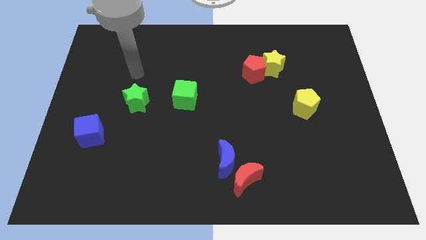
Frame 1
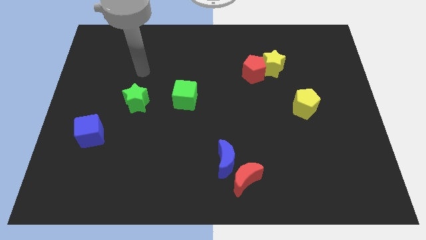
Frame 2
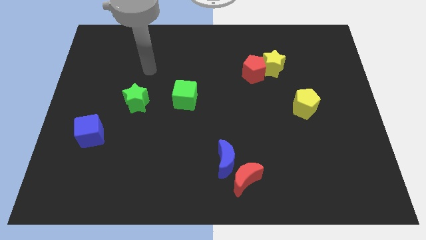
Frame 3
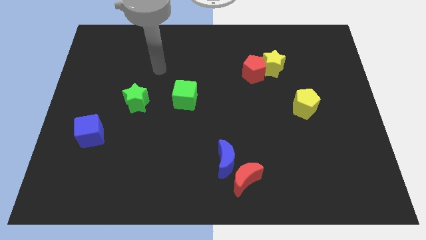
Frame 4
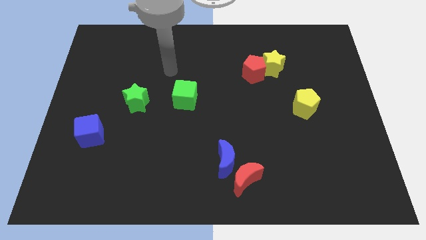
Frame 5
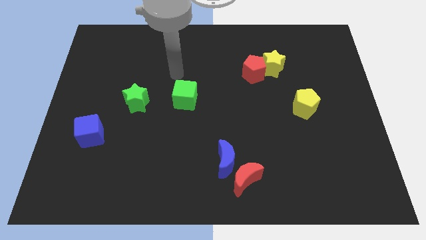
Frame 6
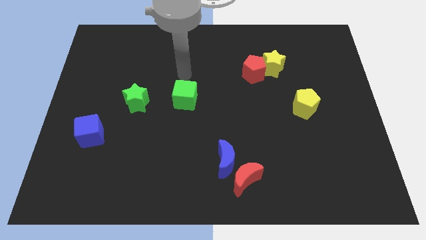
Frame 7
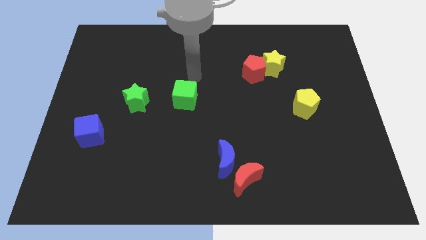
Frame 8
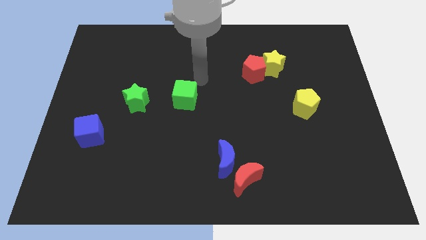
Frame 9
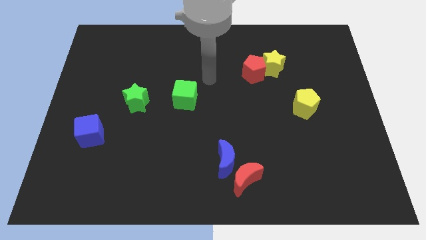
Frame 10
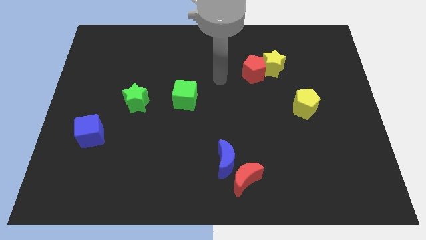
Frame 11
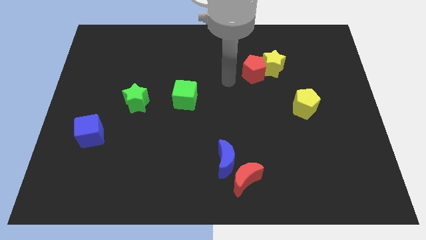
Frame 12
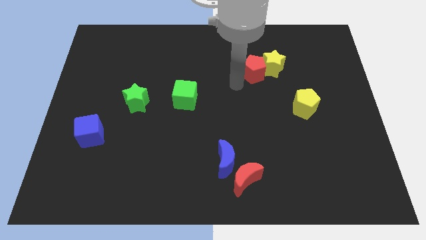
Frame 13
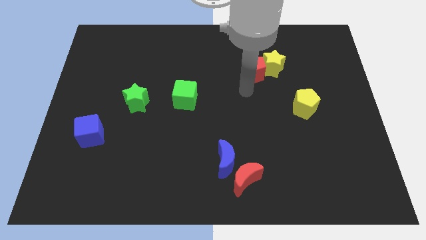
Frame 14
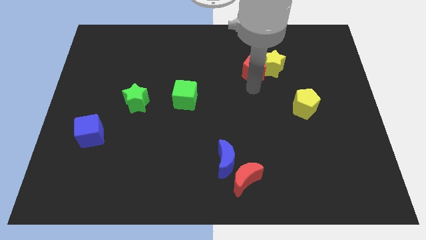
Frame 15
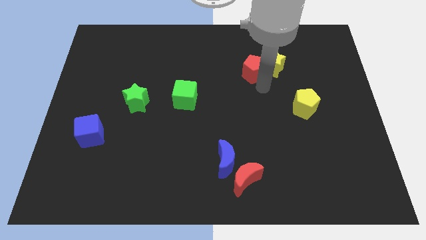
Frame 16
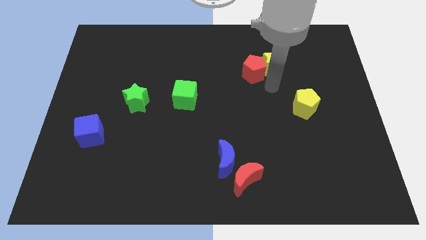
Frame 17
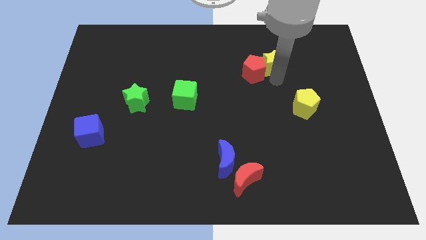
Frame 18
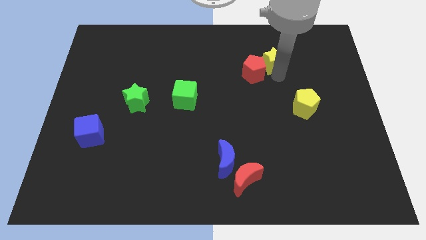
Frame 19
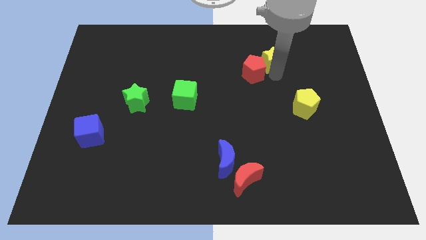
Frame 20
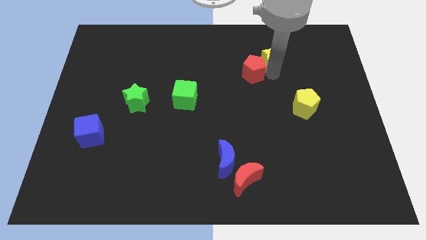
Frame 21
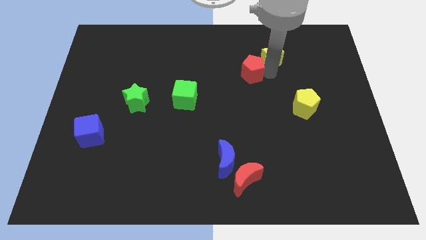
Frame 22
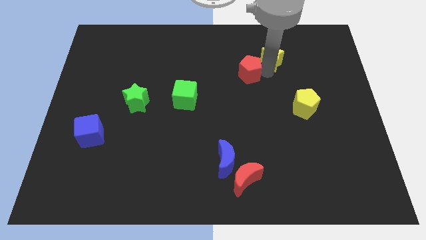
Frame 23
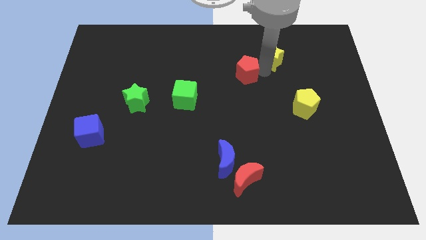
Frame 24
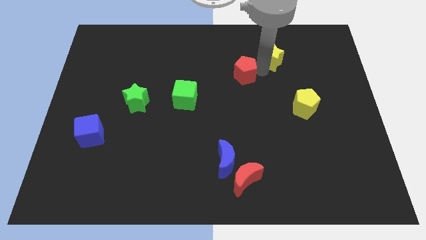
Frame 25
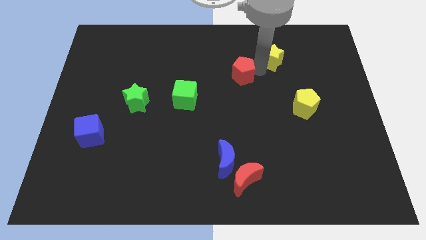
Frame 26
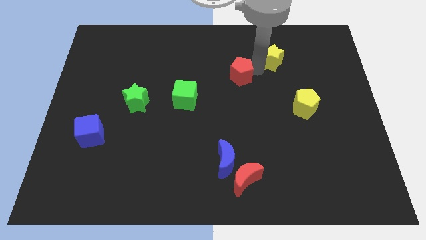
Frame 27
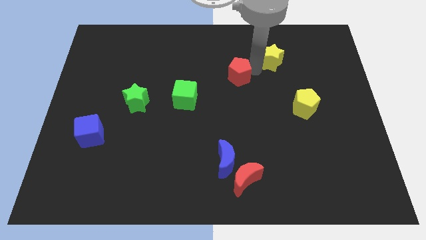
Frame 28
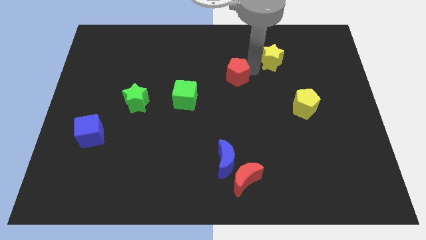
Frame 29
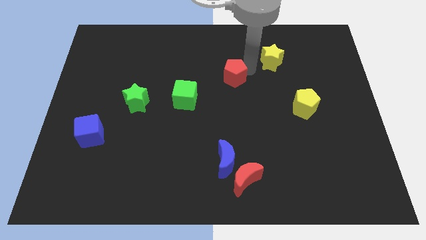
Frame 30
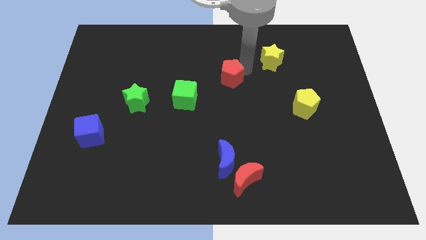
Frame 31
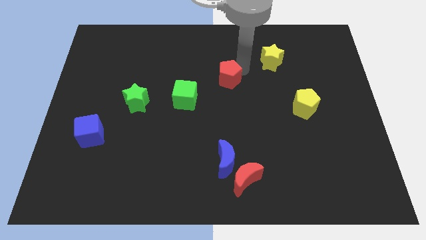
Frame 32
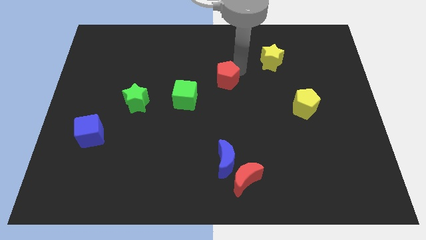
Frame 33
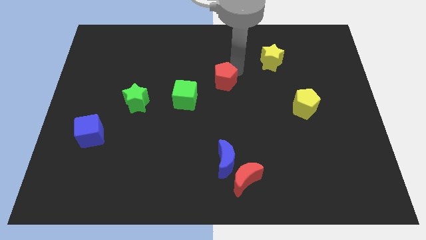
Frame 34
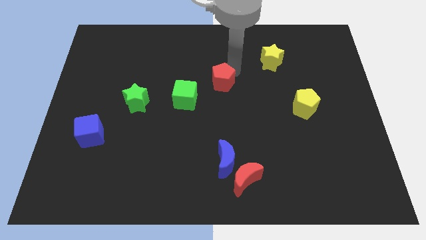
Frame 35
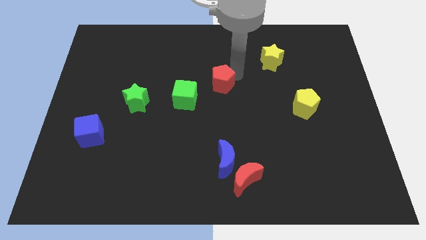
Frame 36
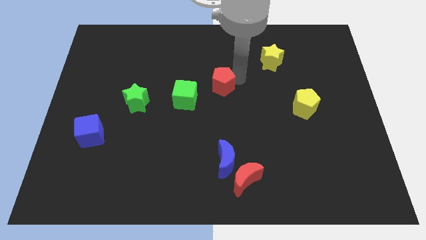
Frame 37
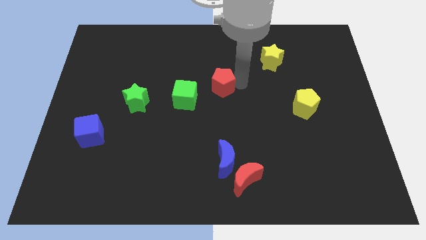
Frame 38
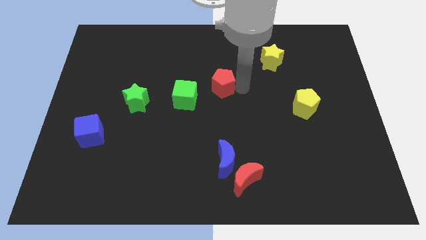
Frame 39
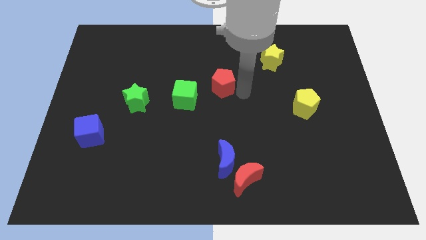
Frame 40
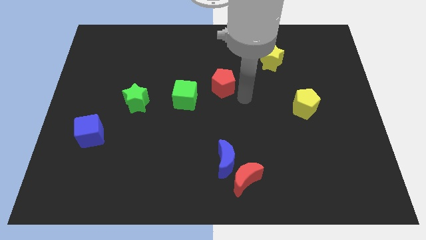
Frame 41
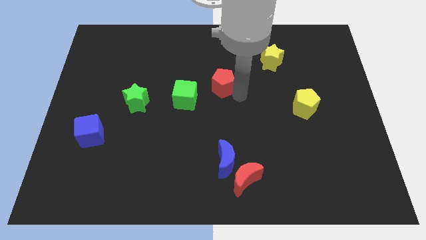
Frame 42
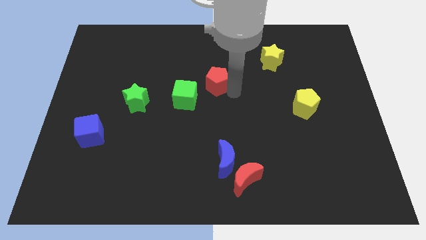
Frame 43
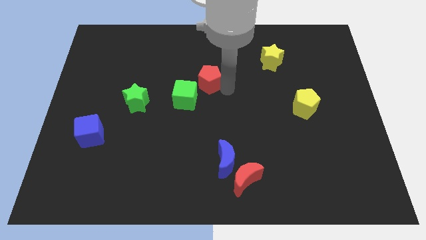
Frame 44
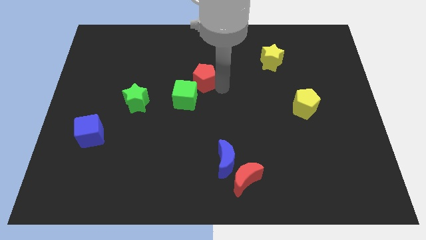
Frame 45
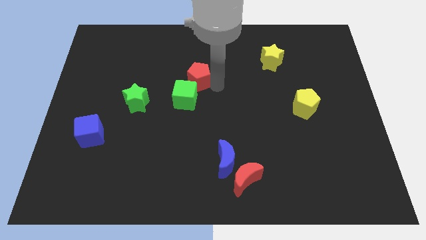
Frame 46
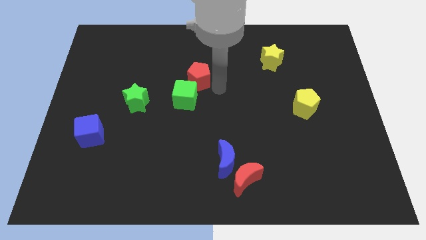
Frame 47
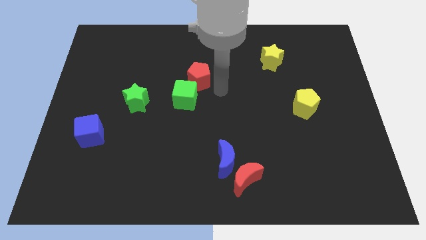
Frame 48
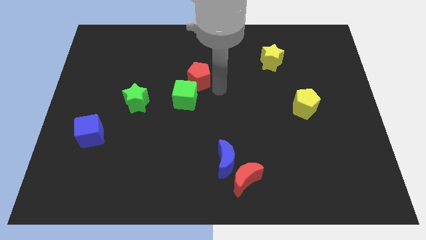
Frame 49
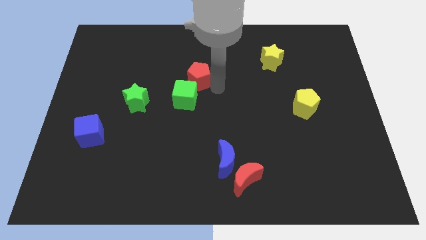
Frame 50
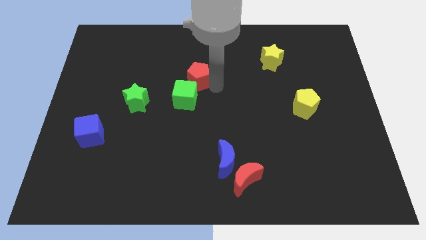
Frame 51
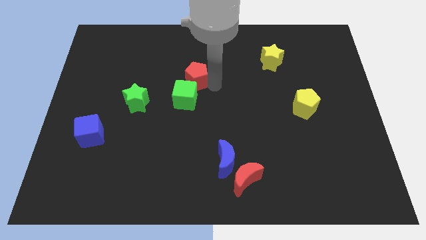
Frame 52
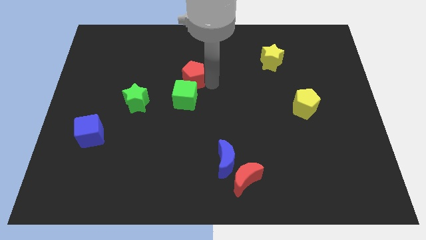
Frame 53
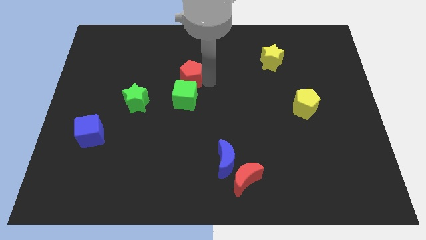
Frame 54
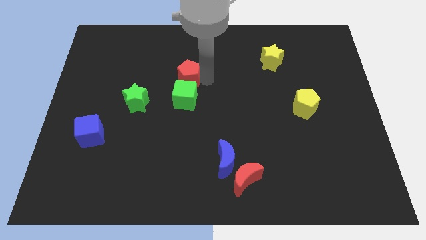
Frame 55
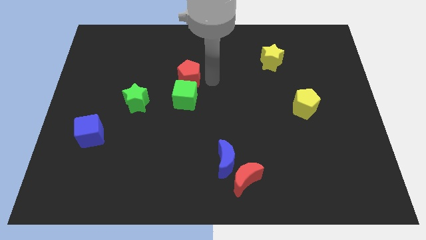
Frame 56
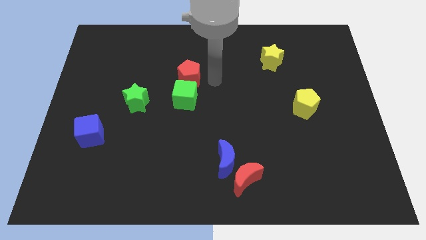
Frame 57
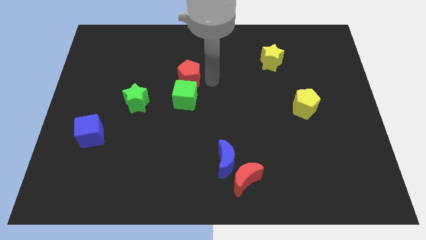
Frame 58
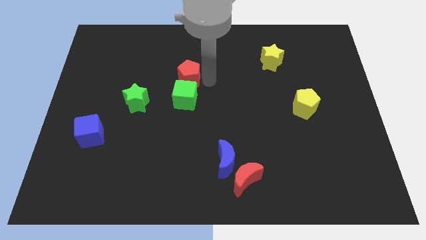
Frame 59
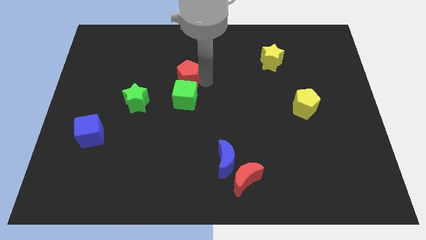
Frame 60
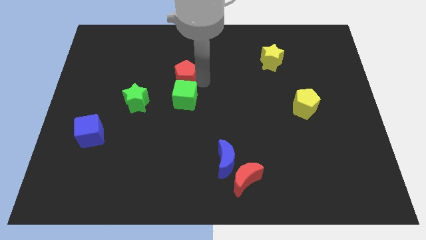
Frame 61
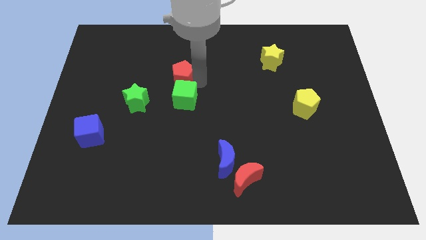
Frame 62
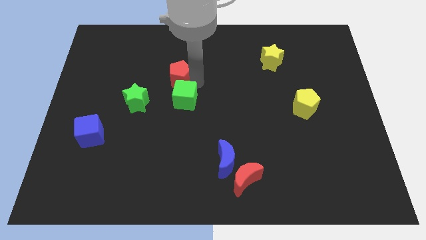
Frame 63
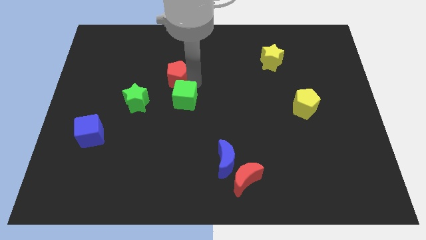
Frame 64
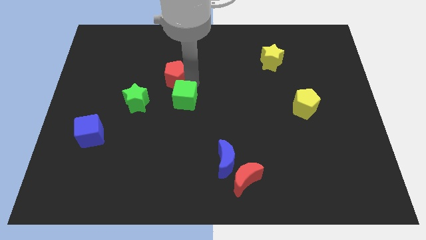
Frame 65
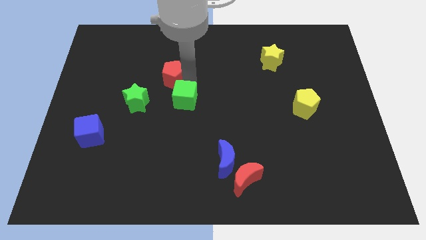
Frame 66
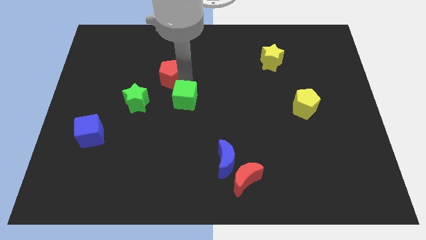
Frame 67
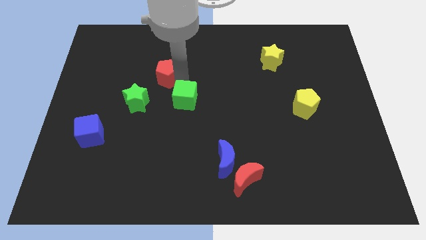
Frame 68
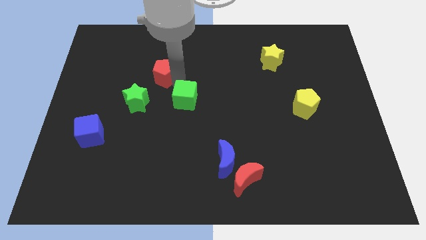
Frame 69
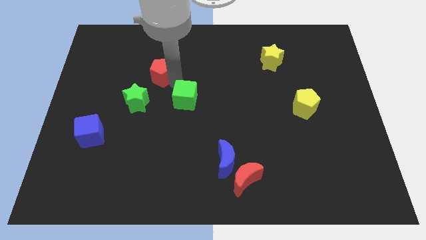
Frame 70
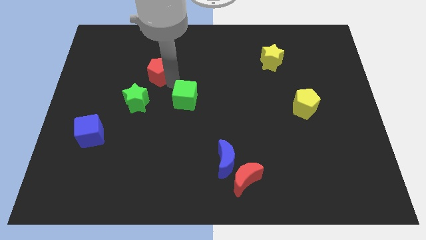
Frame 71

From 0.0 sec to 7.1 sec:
move the red pentagon to the top of the green star

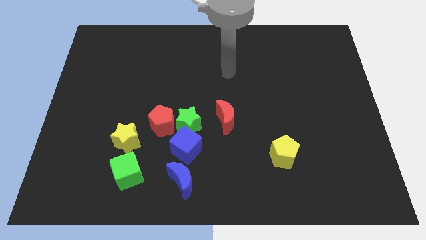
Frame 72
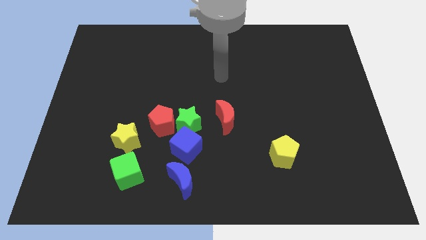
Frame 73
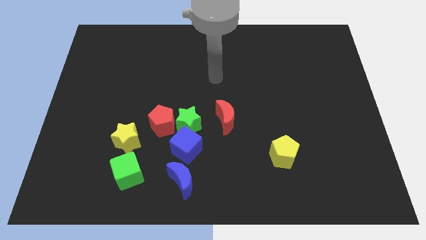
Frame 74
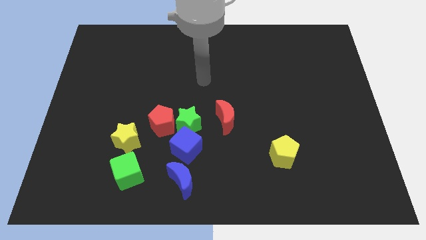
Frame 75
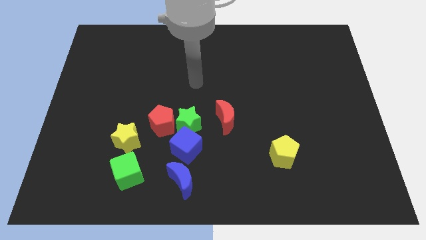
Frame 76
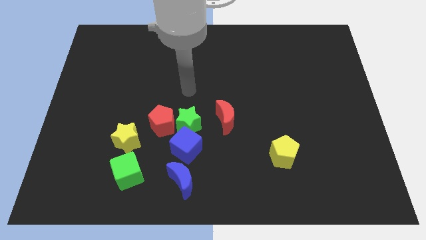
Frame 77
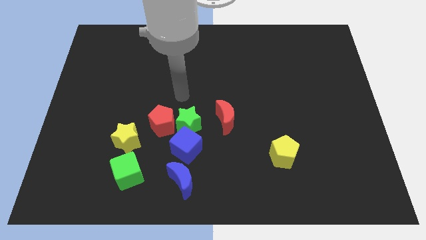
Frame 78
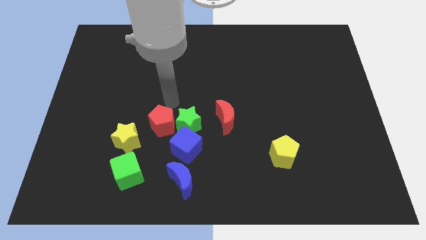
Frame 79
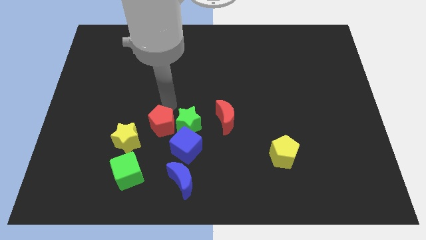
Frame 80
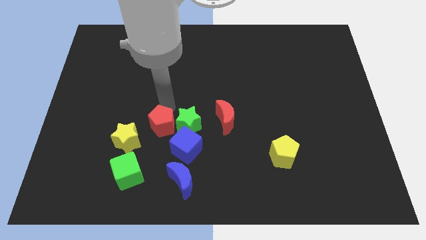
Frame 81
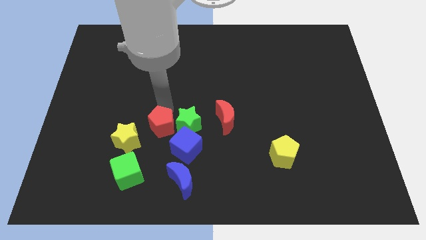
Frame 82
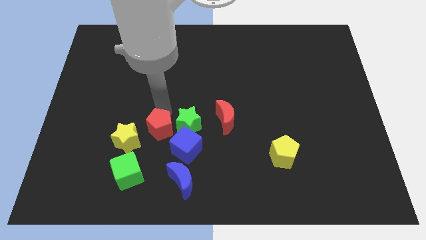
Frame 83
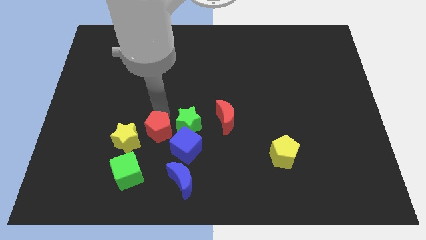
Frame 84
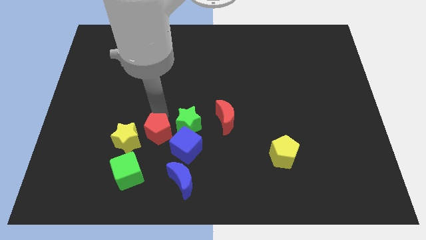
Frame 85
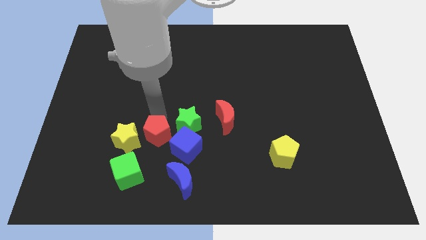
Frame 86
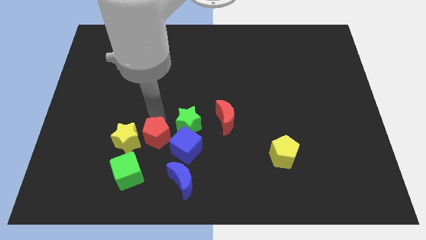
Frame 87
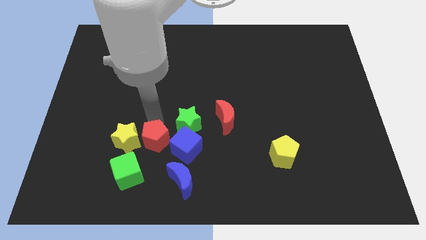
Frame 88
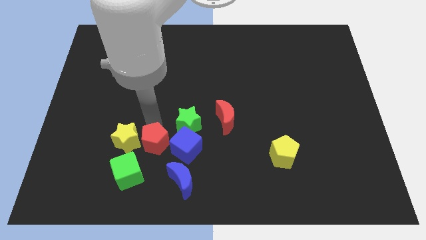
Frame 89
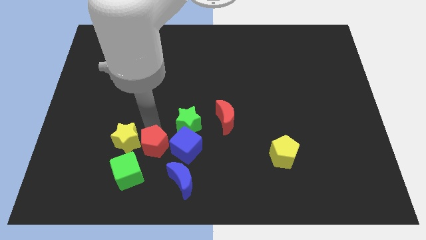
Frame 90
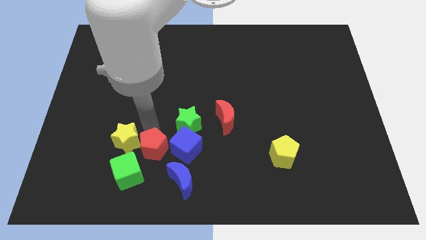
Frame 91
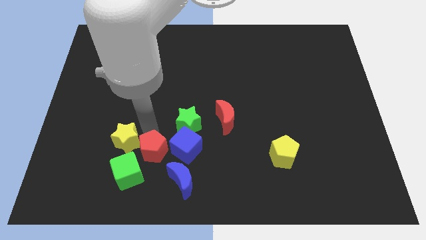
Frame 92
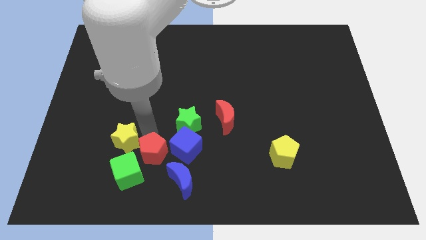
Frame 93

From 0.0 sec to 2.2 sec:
put the red pentagon to the right side of the green cube
